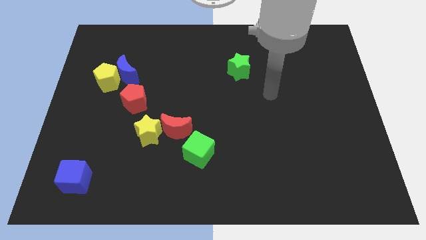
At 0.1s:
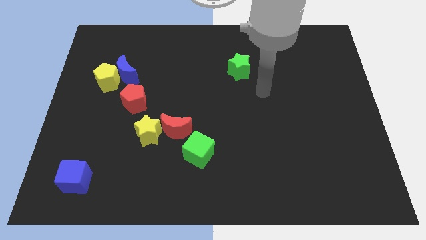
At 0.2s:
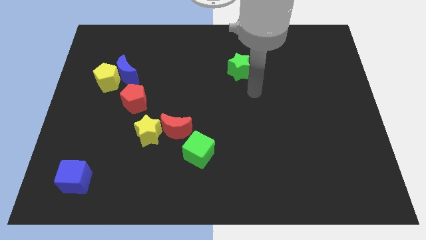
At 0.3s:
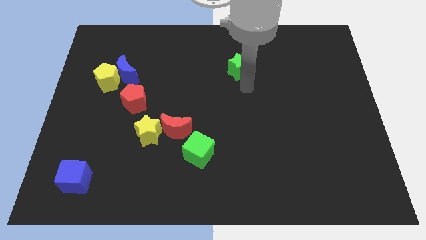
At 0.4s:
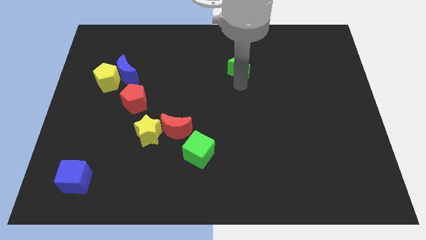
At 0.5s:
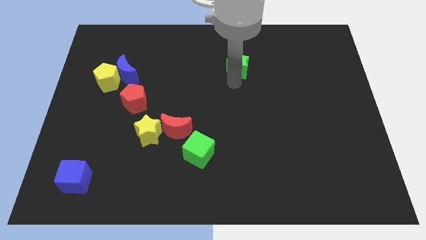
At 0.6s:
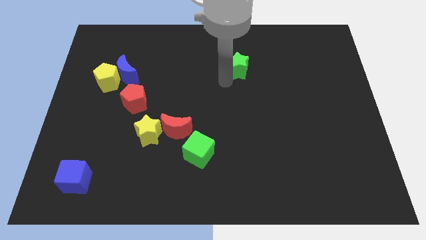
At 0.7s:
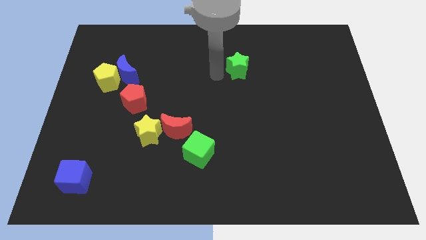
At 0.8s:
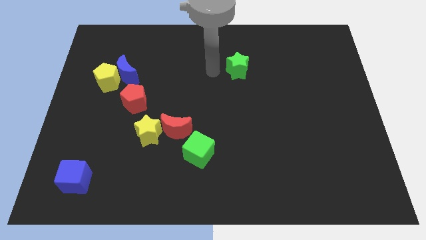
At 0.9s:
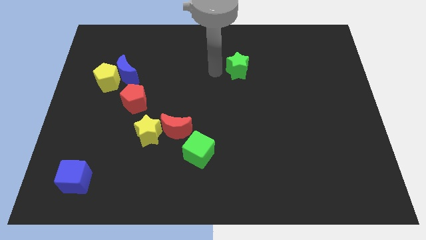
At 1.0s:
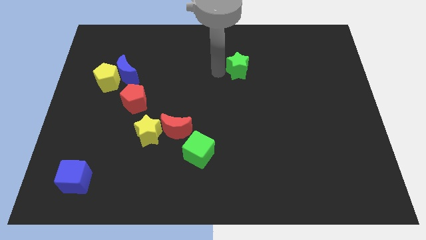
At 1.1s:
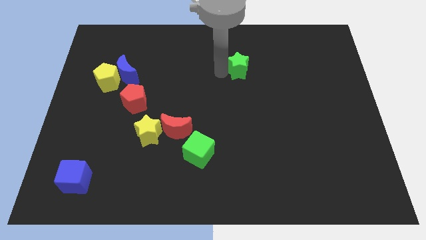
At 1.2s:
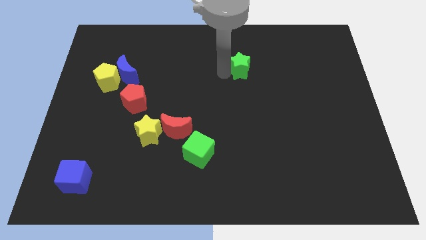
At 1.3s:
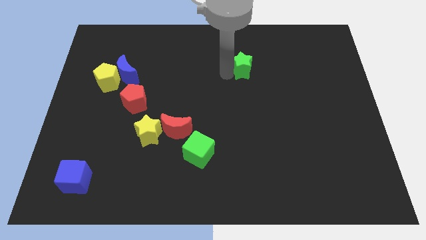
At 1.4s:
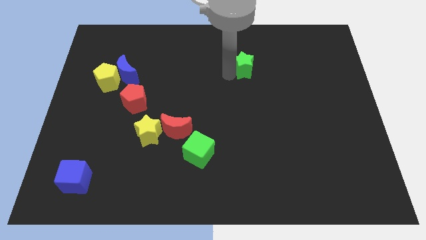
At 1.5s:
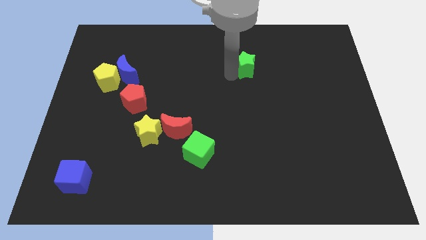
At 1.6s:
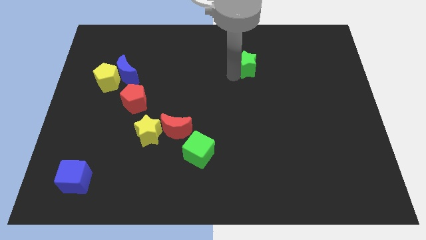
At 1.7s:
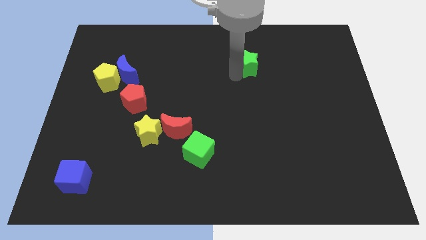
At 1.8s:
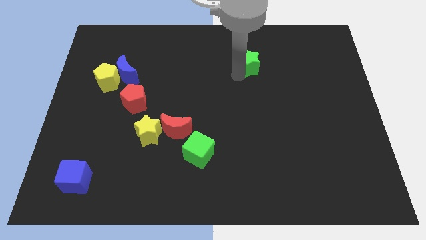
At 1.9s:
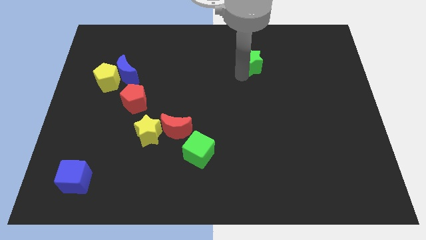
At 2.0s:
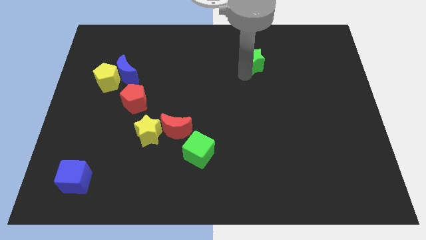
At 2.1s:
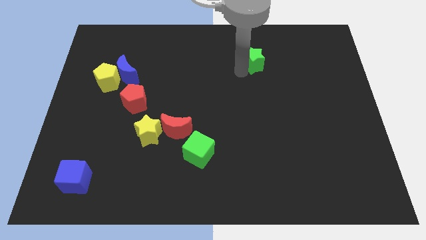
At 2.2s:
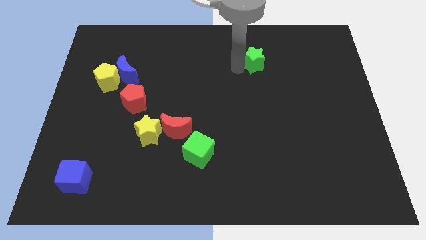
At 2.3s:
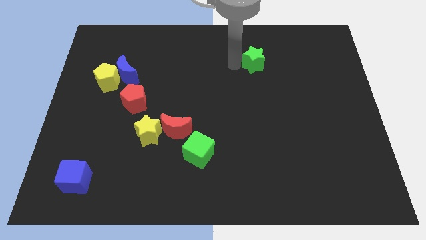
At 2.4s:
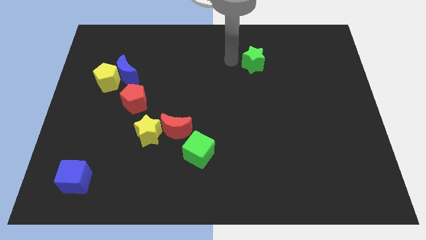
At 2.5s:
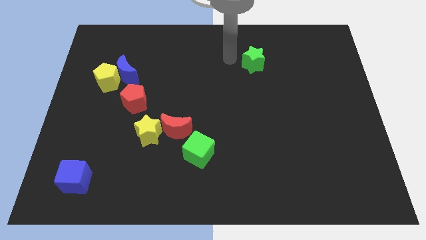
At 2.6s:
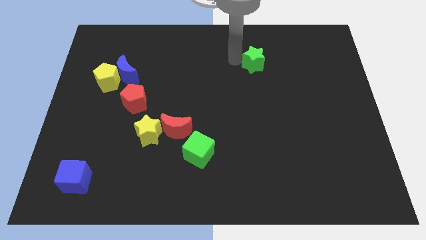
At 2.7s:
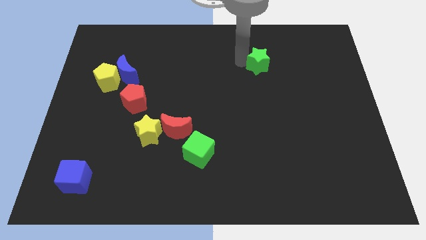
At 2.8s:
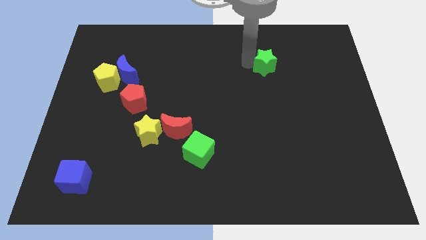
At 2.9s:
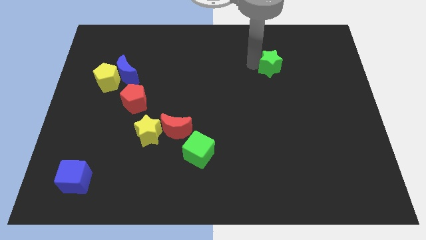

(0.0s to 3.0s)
push the green star a bit right

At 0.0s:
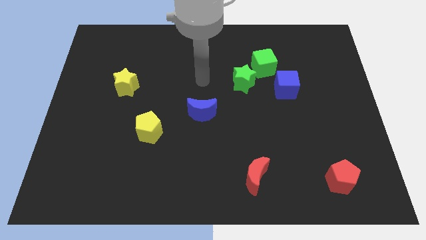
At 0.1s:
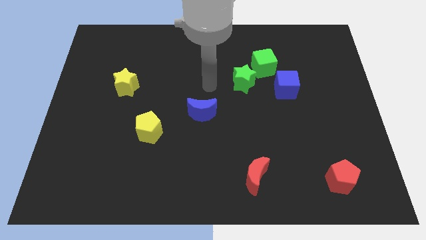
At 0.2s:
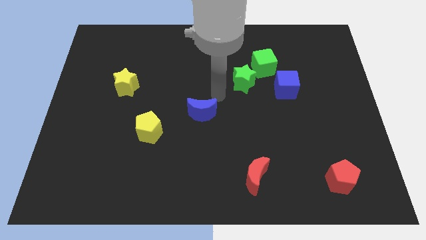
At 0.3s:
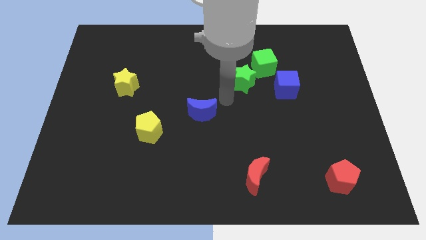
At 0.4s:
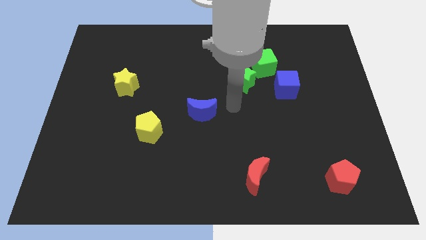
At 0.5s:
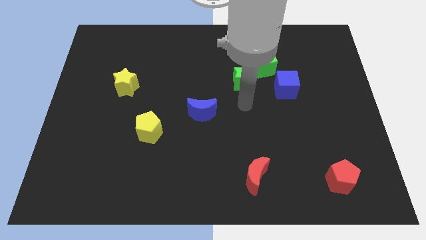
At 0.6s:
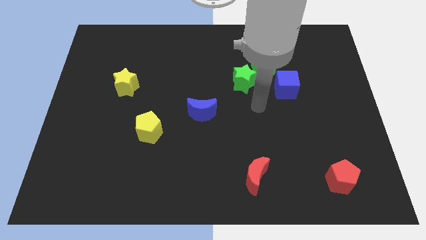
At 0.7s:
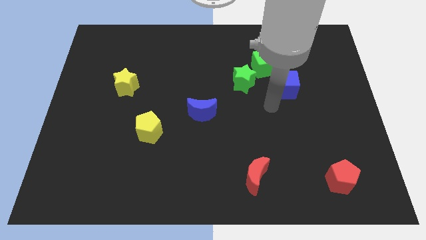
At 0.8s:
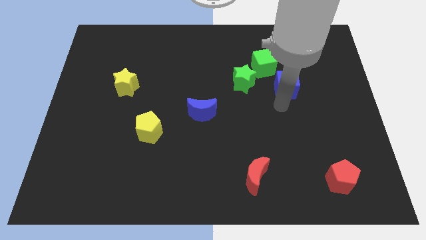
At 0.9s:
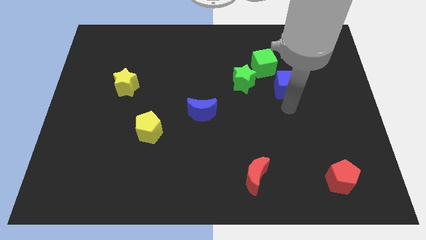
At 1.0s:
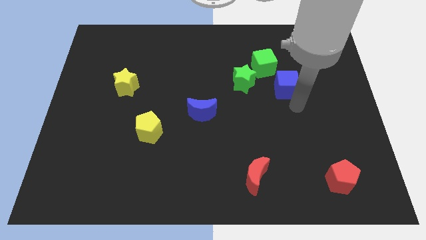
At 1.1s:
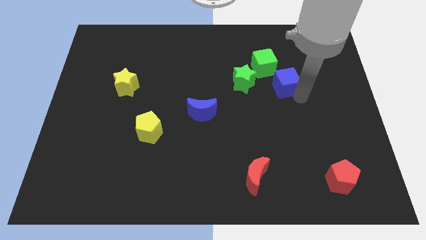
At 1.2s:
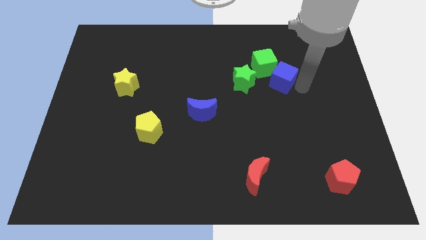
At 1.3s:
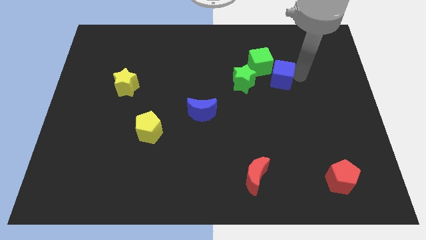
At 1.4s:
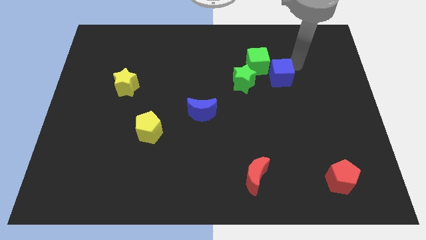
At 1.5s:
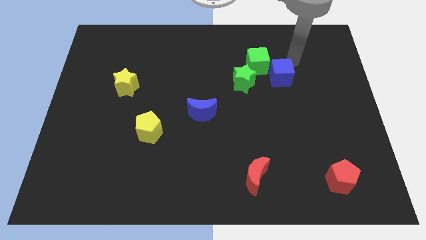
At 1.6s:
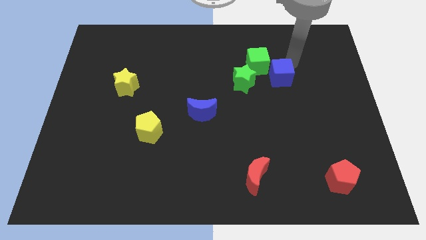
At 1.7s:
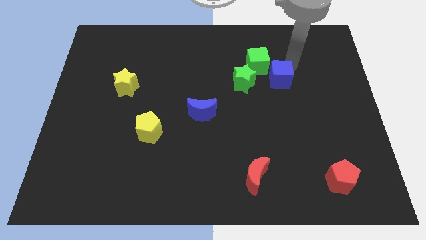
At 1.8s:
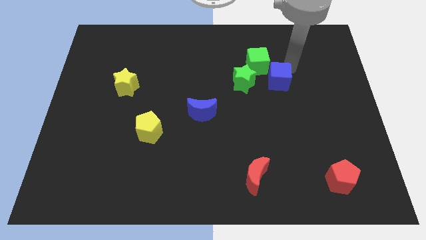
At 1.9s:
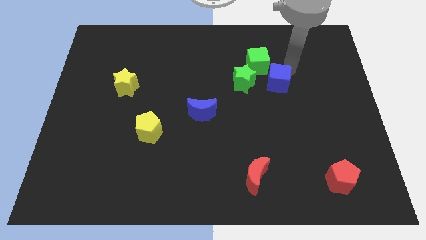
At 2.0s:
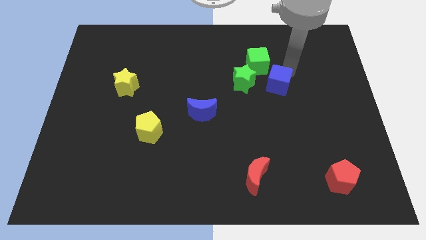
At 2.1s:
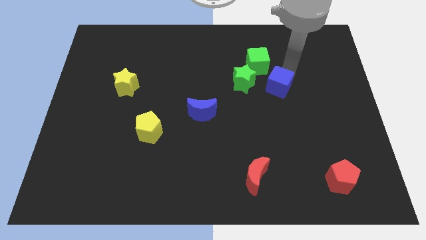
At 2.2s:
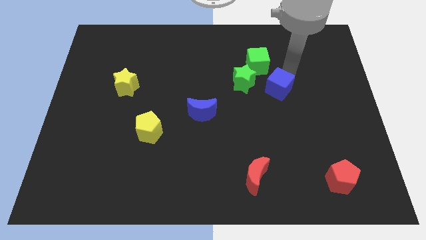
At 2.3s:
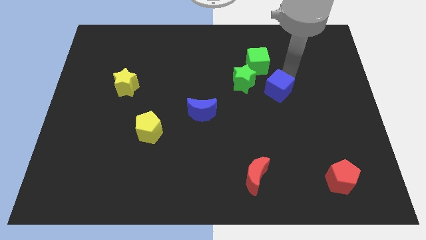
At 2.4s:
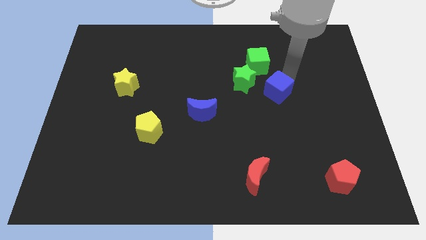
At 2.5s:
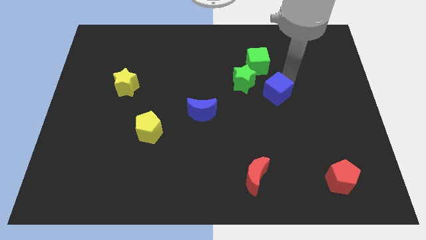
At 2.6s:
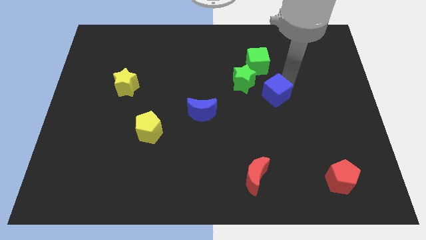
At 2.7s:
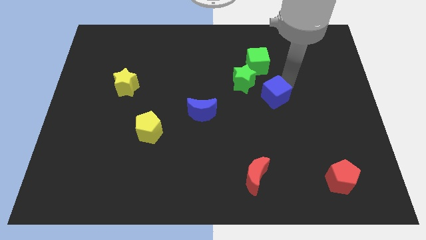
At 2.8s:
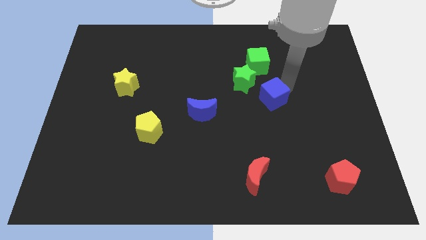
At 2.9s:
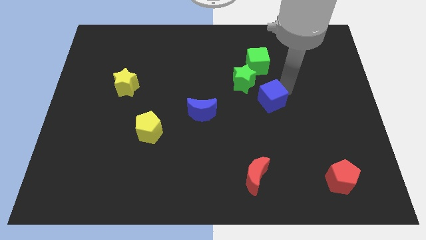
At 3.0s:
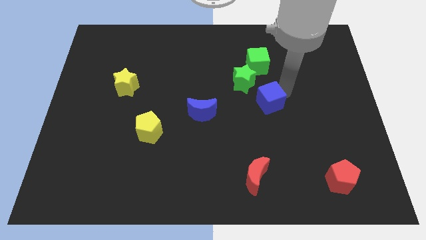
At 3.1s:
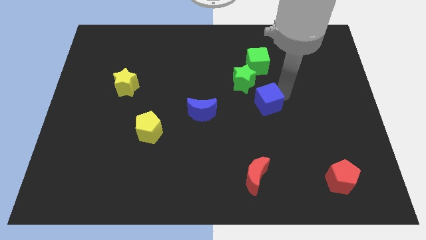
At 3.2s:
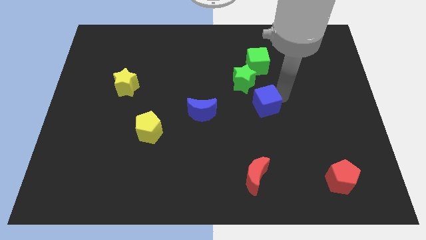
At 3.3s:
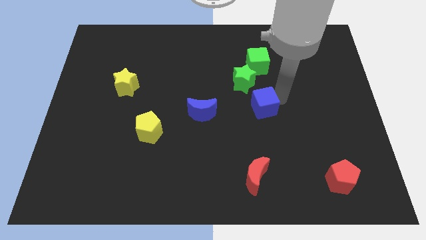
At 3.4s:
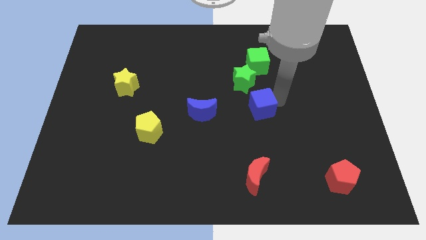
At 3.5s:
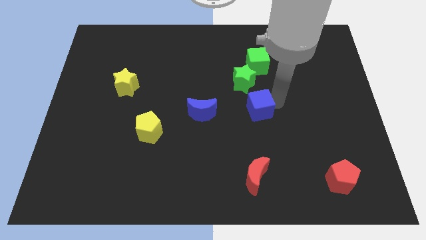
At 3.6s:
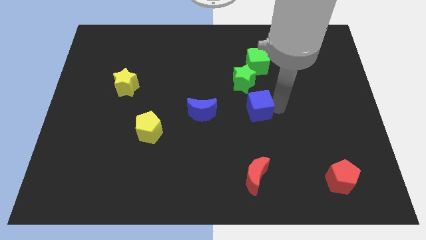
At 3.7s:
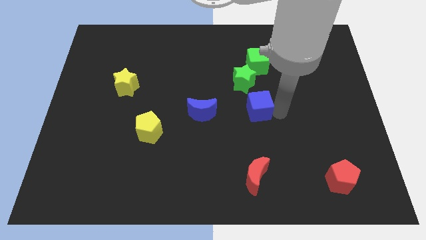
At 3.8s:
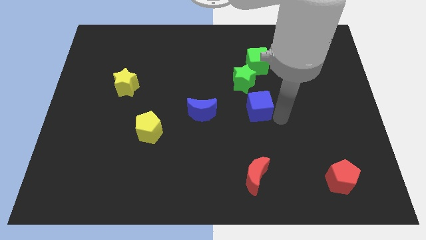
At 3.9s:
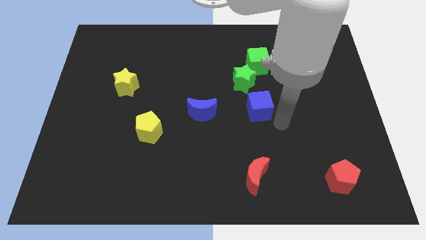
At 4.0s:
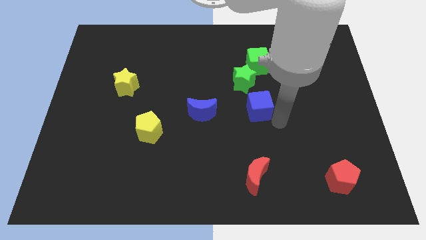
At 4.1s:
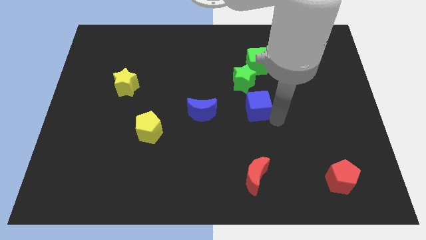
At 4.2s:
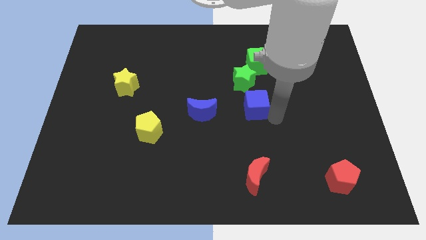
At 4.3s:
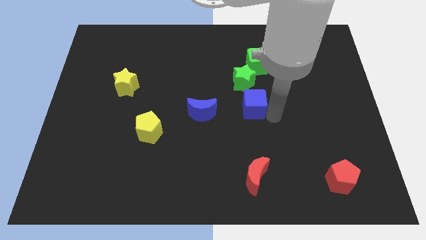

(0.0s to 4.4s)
move the blue cube a bit to the left

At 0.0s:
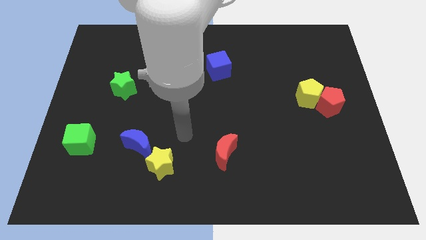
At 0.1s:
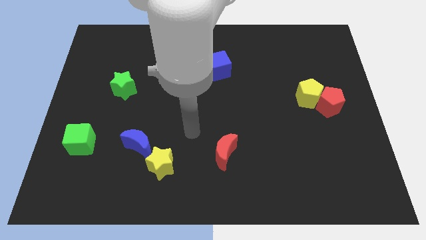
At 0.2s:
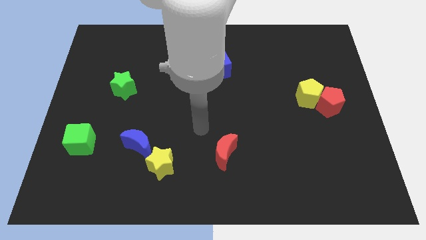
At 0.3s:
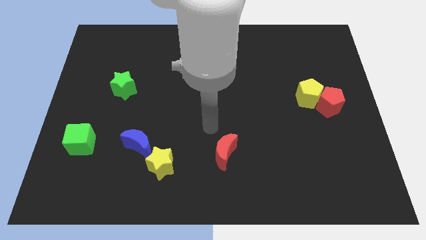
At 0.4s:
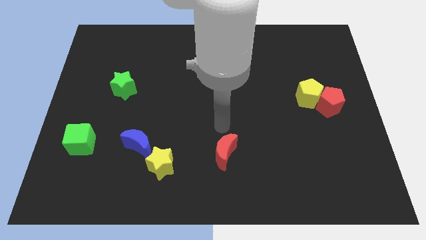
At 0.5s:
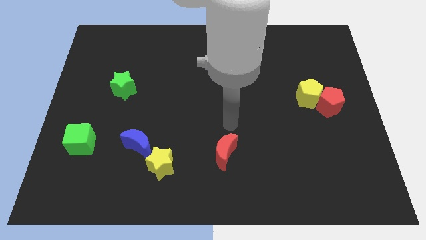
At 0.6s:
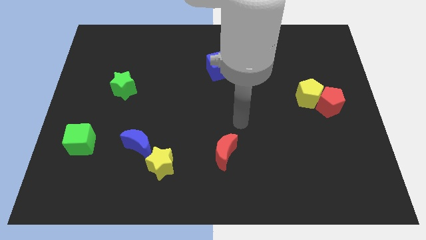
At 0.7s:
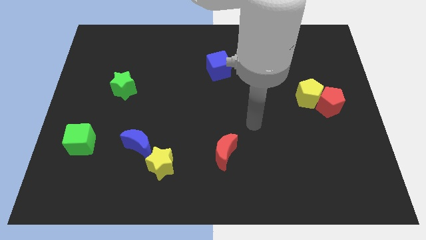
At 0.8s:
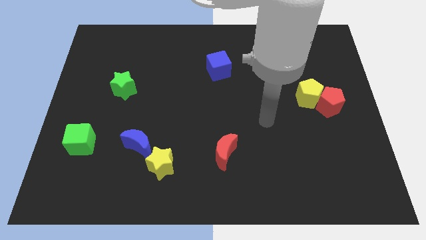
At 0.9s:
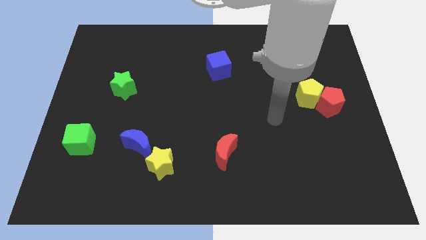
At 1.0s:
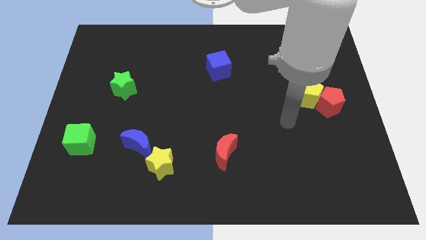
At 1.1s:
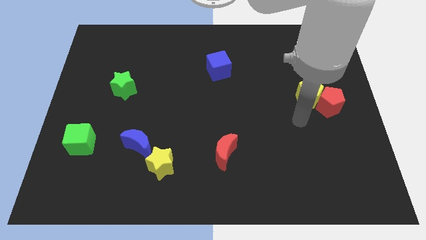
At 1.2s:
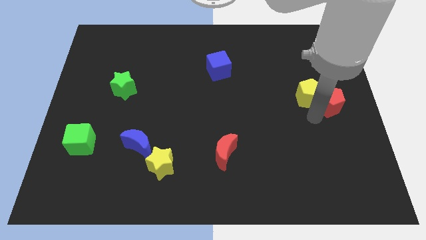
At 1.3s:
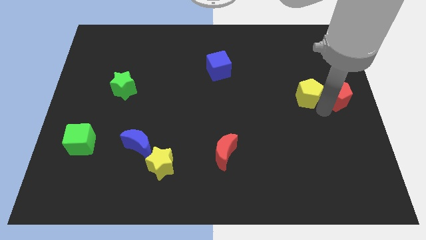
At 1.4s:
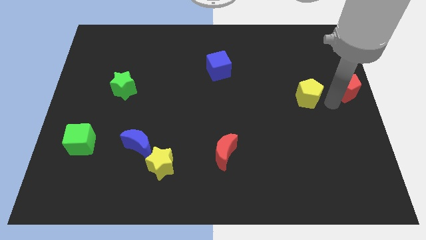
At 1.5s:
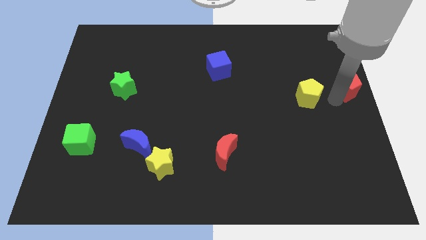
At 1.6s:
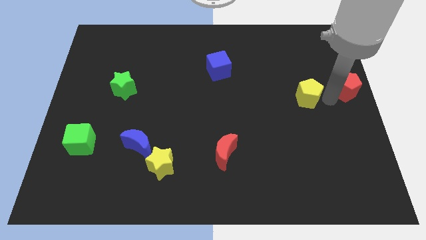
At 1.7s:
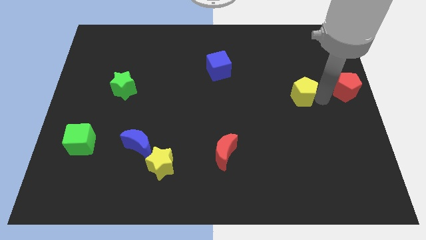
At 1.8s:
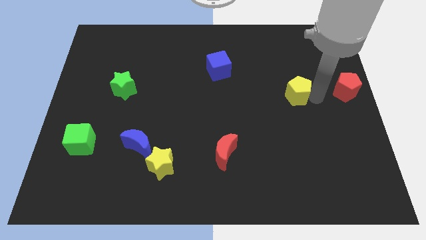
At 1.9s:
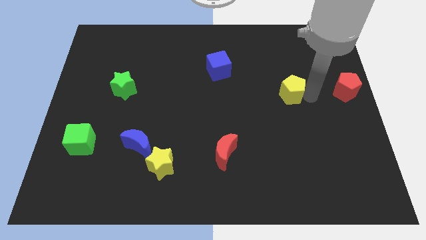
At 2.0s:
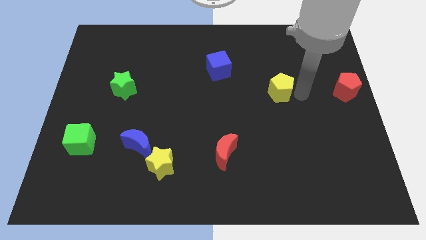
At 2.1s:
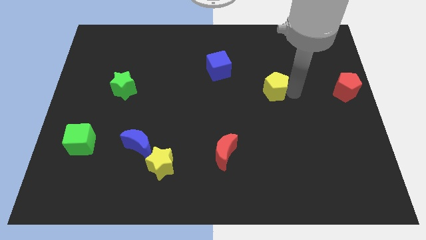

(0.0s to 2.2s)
slide the yellow pentagon a little bit left
